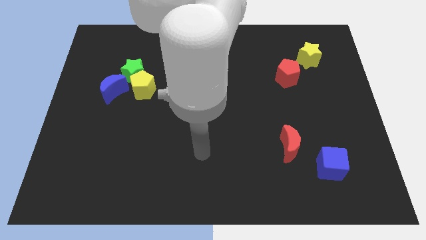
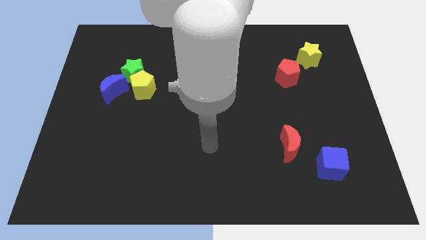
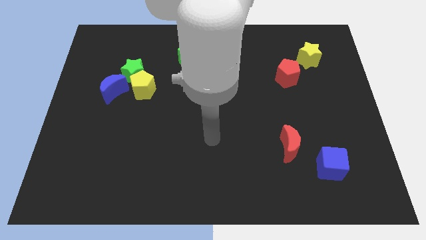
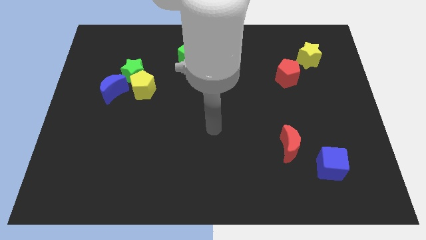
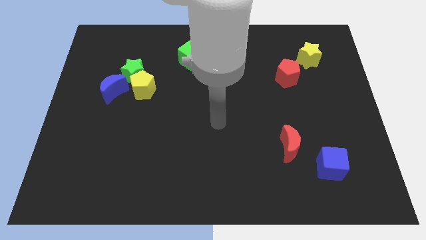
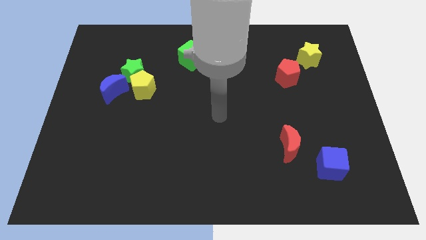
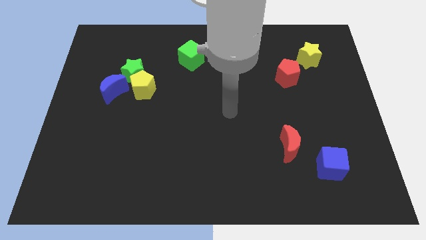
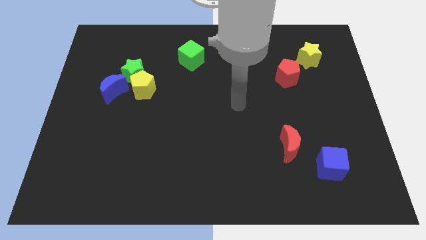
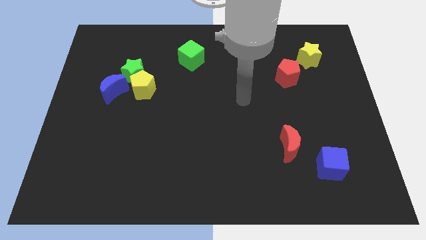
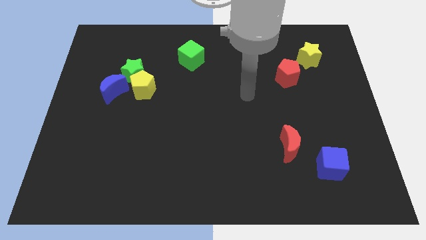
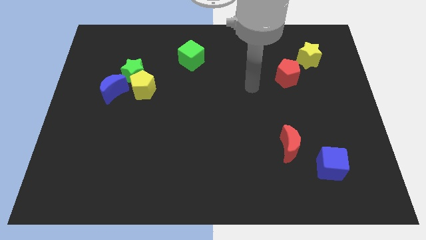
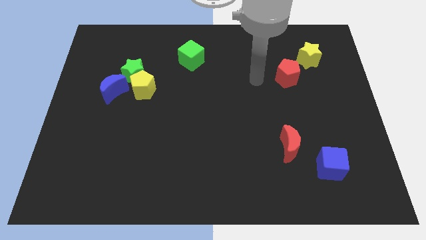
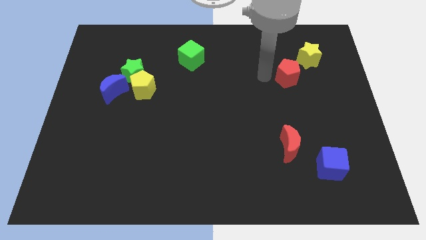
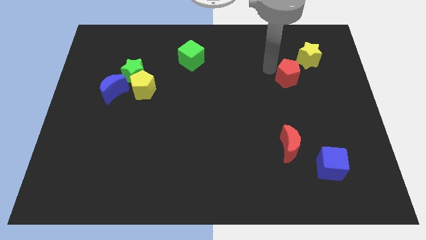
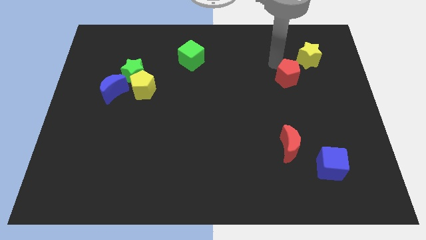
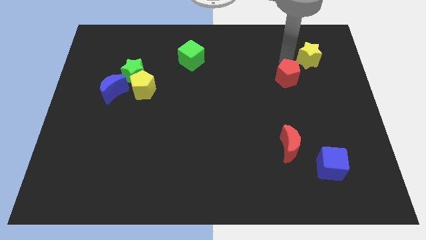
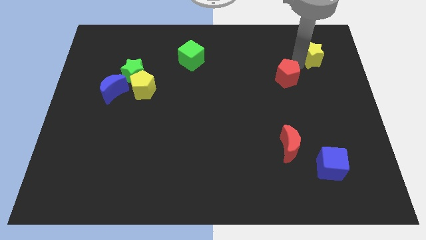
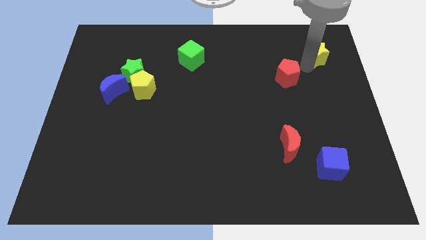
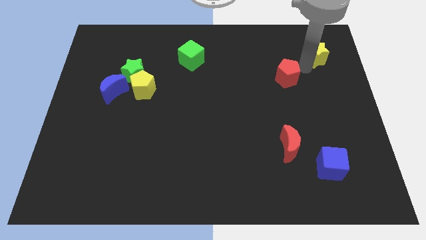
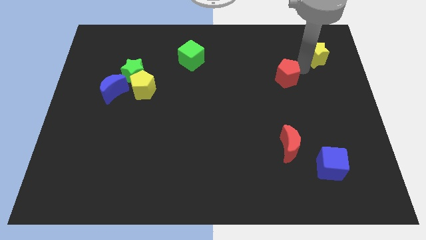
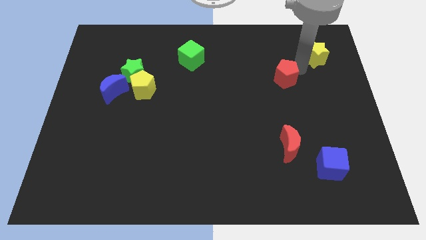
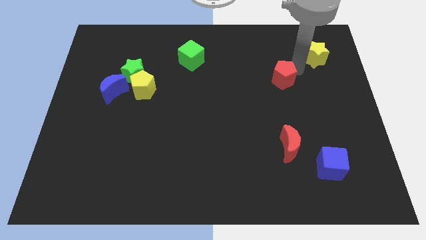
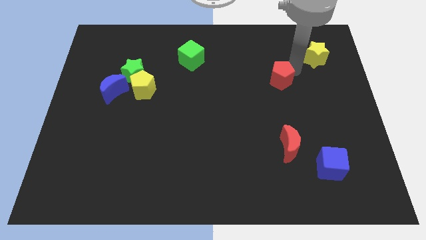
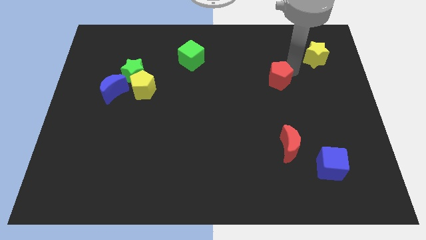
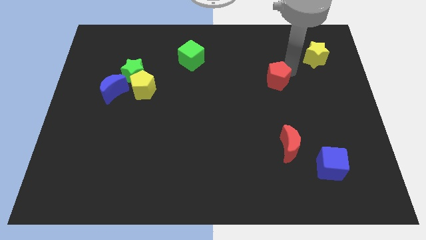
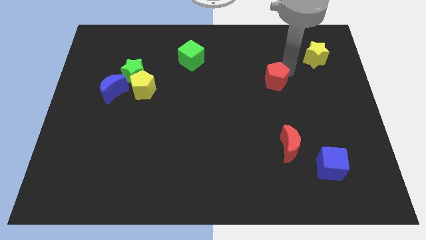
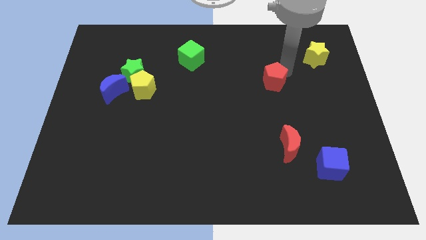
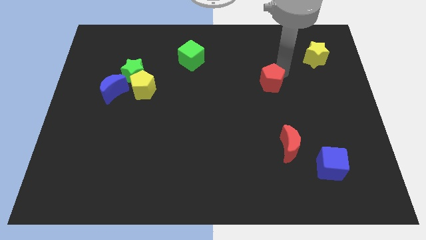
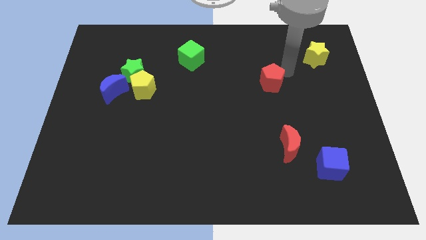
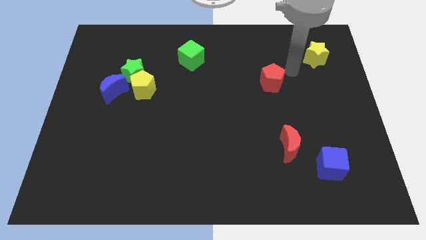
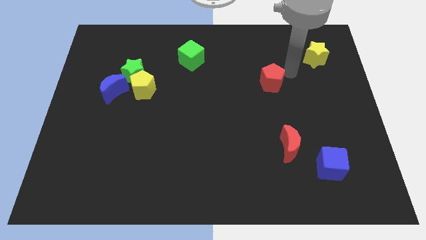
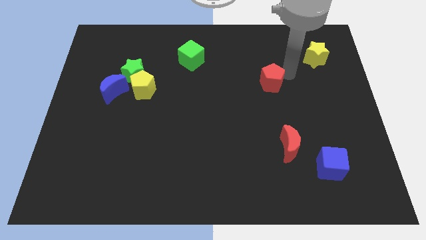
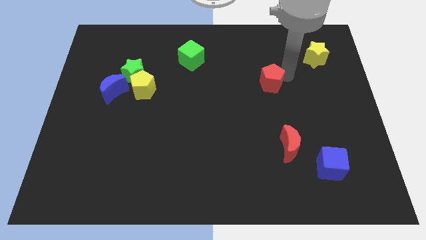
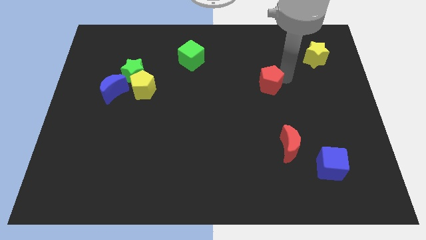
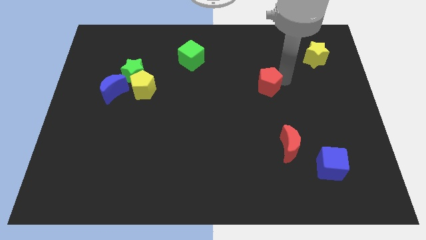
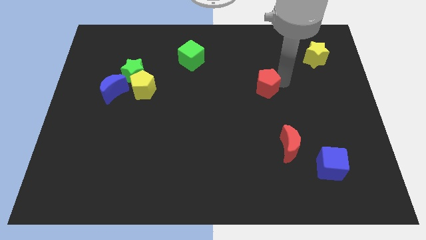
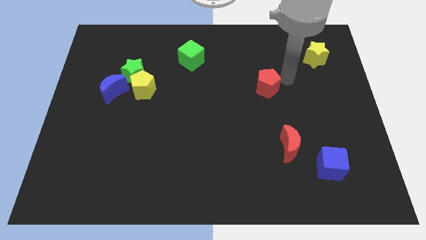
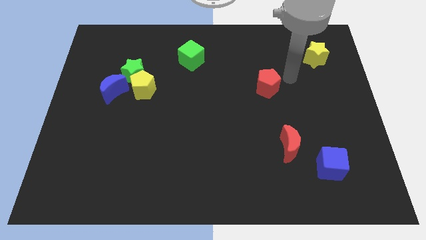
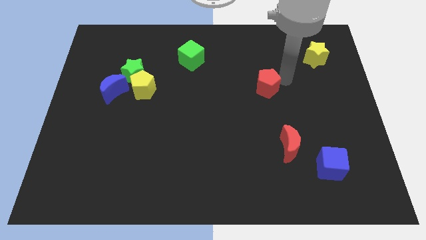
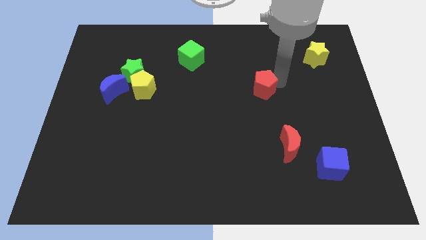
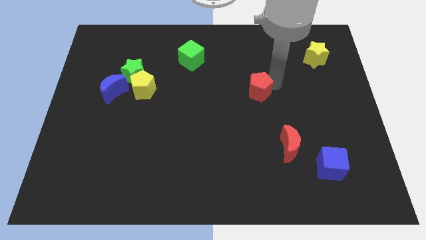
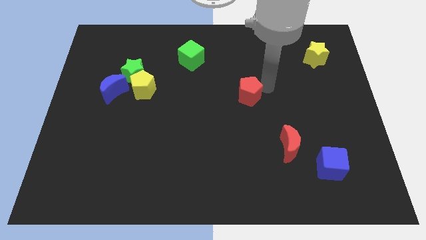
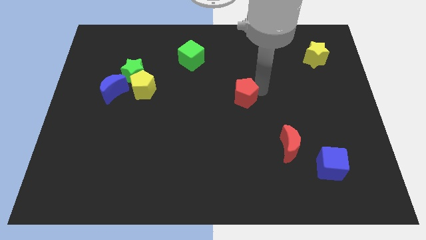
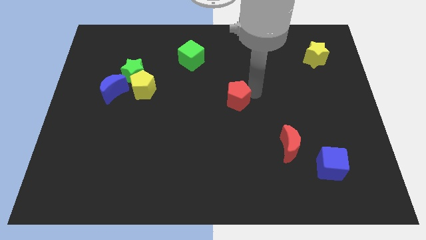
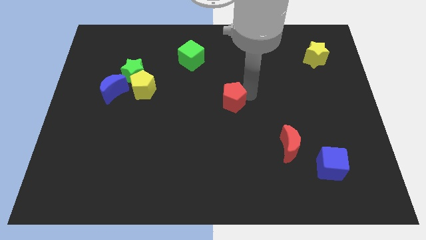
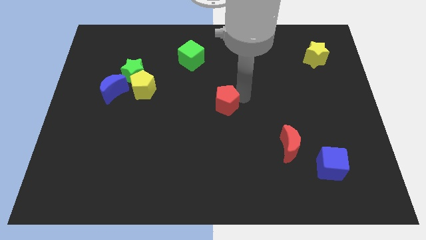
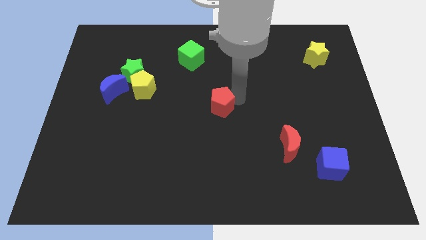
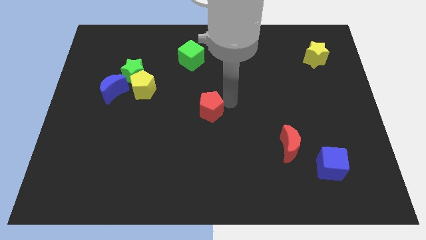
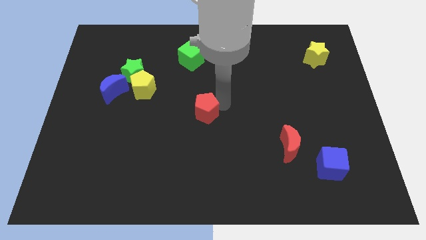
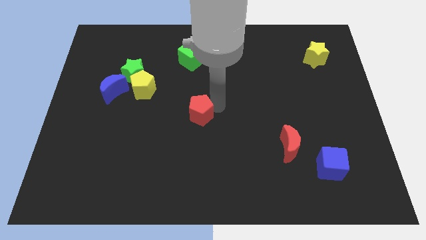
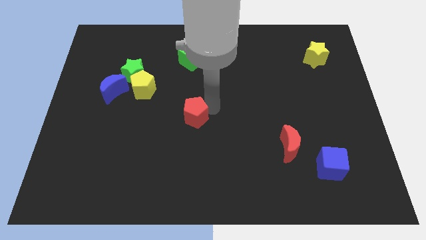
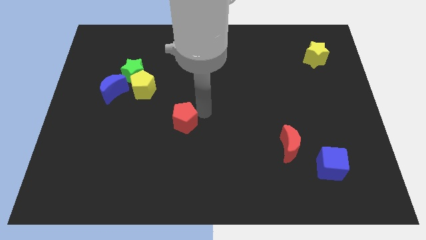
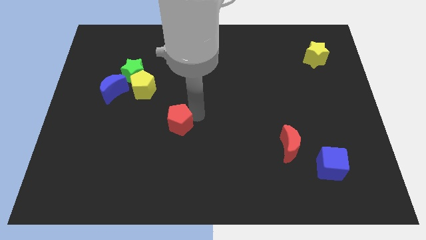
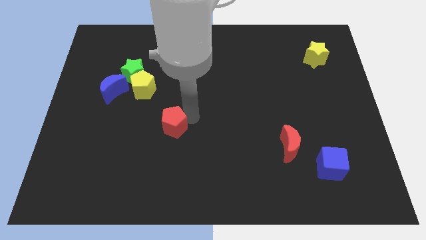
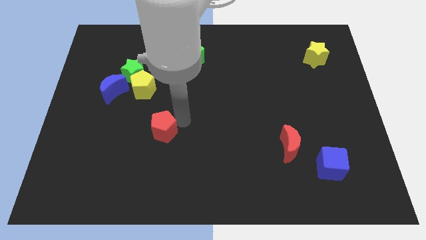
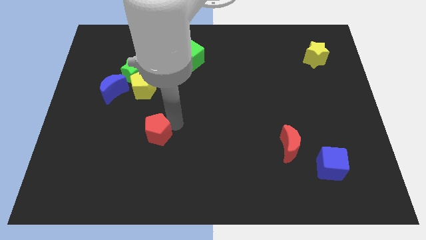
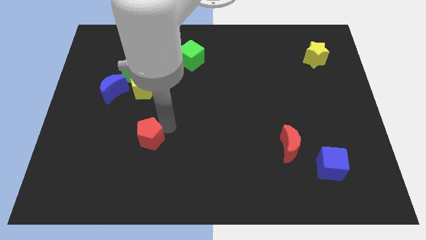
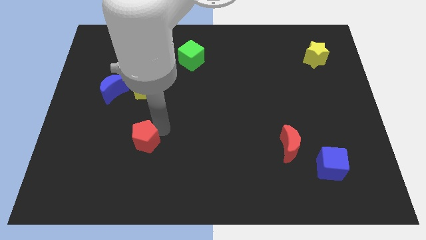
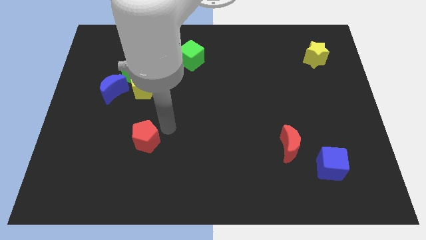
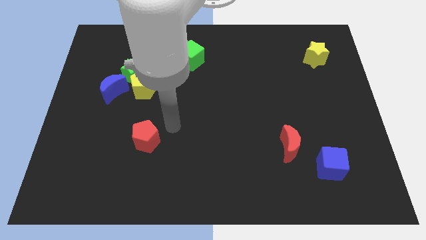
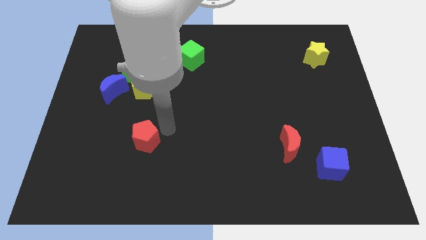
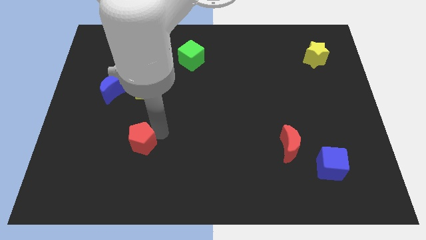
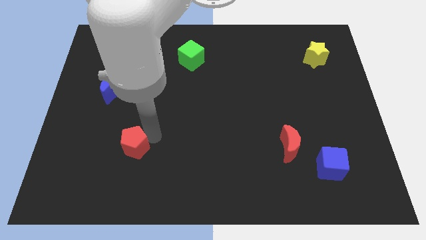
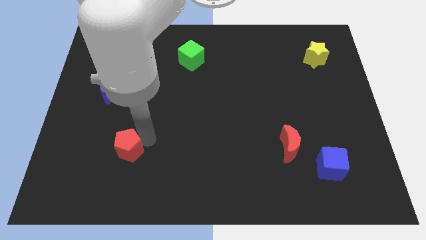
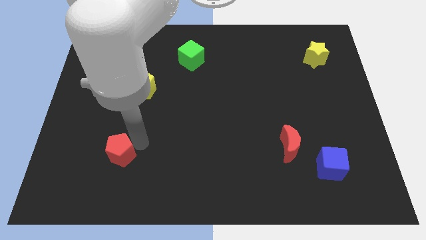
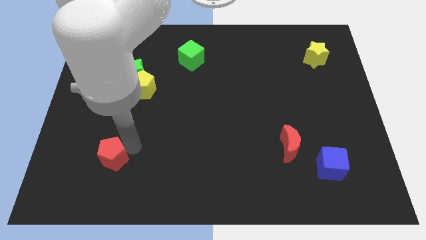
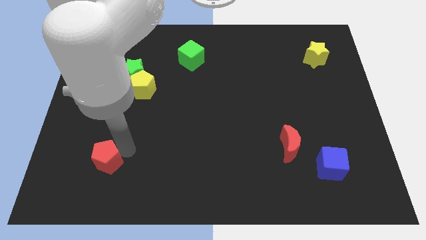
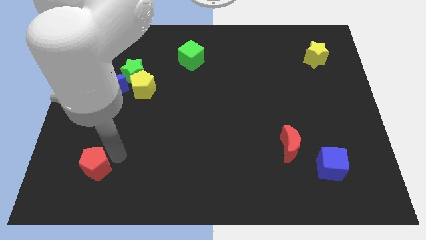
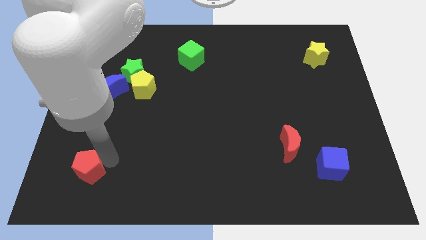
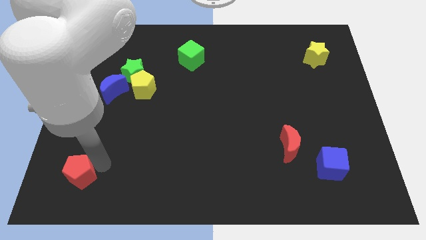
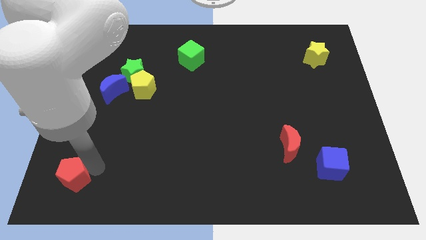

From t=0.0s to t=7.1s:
put the red pentagon to the bottom left
